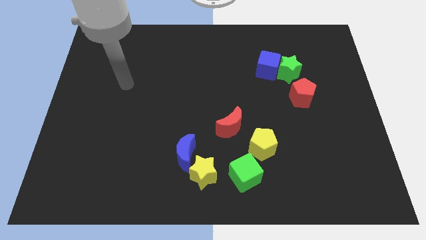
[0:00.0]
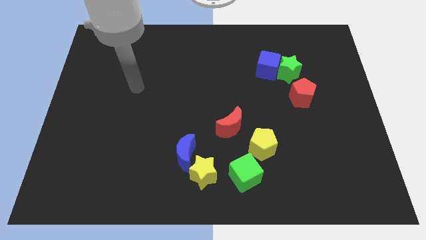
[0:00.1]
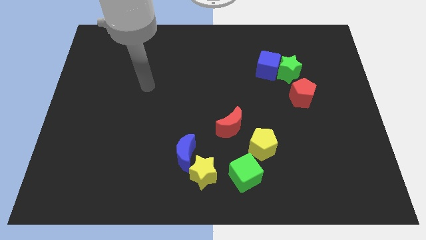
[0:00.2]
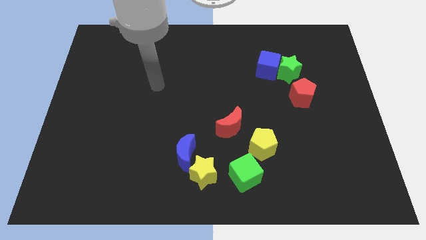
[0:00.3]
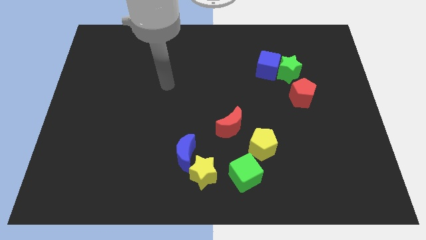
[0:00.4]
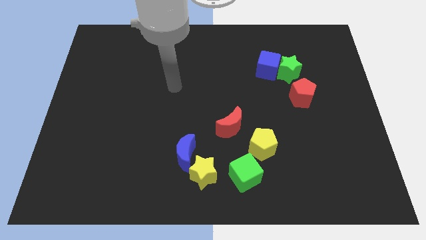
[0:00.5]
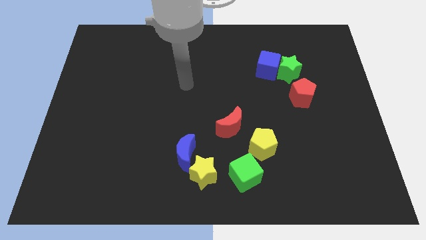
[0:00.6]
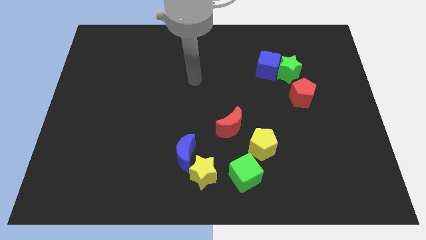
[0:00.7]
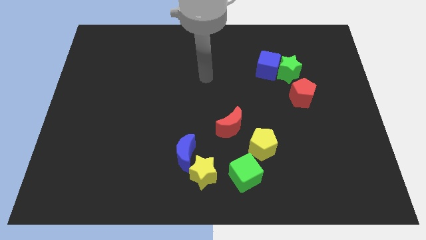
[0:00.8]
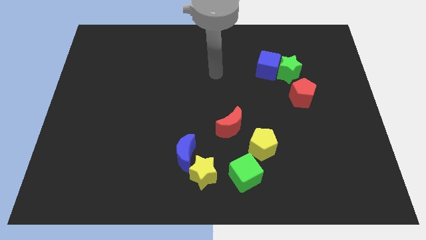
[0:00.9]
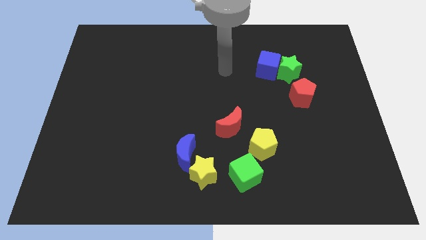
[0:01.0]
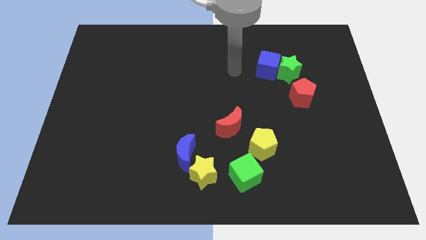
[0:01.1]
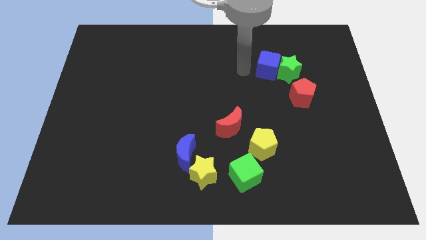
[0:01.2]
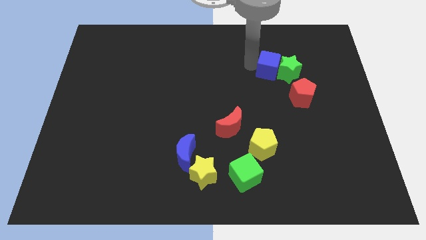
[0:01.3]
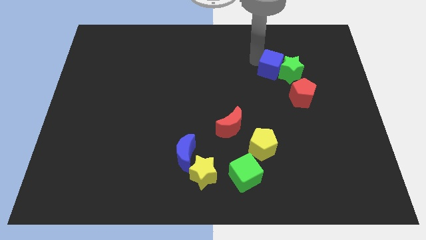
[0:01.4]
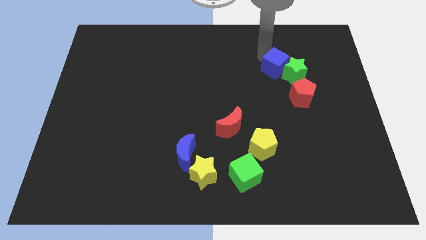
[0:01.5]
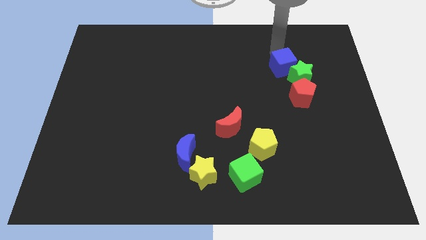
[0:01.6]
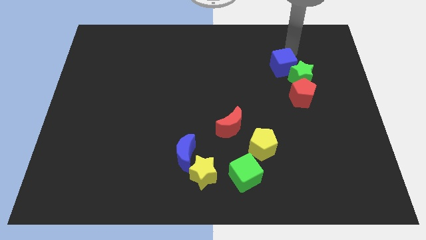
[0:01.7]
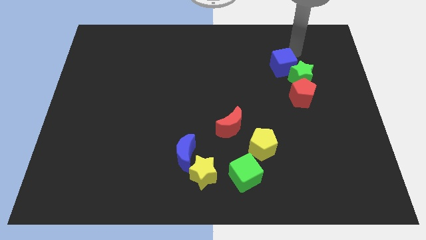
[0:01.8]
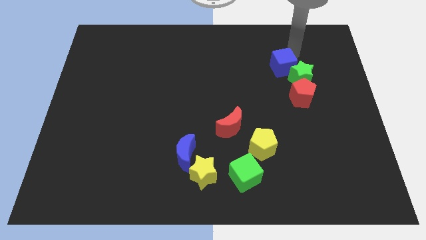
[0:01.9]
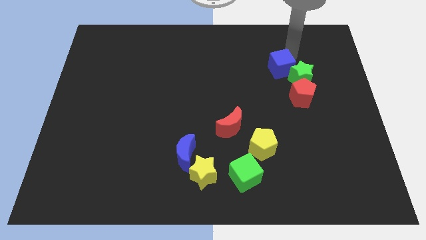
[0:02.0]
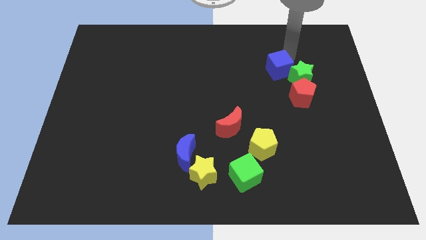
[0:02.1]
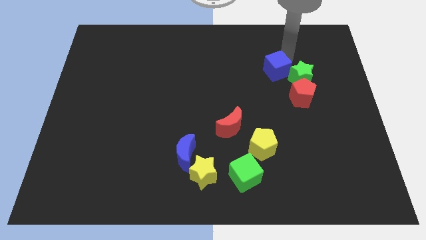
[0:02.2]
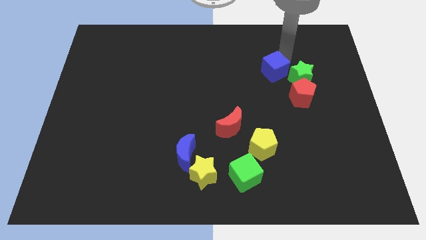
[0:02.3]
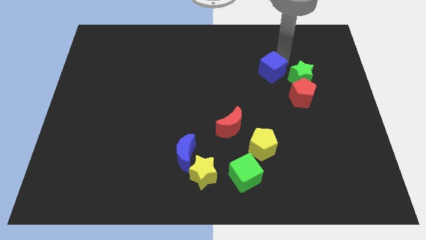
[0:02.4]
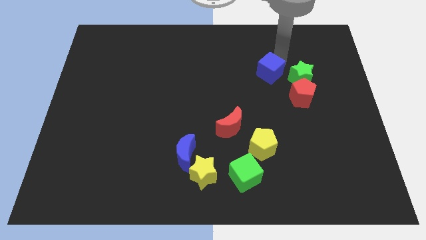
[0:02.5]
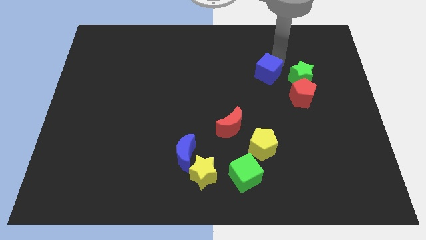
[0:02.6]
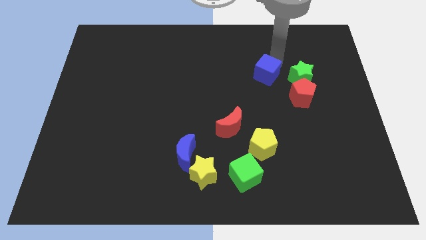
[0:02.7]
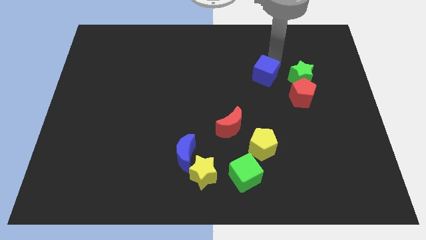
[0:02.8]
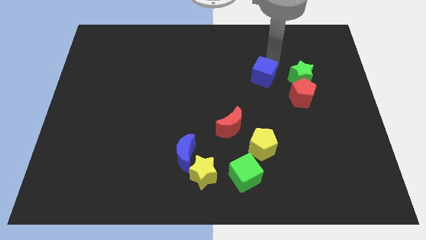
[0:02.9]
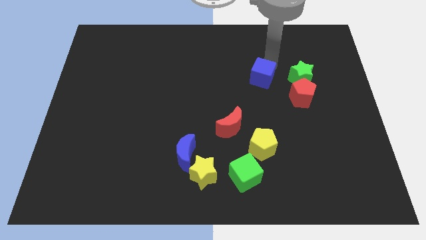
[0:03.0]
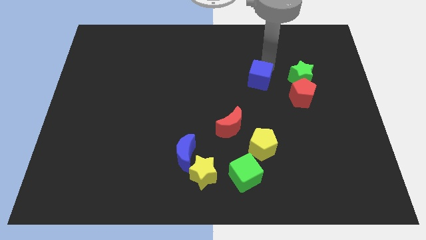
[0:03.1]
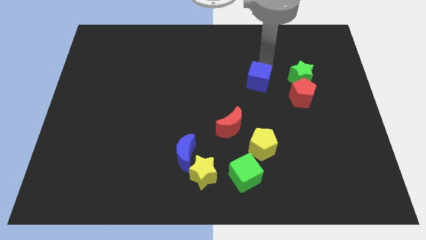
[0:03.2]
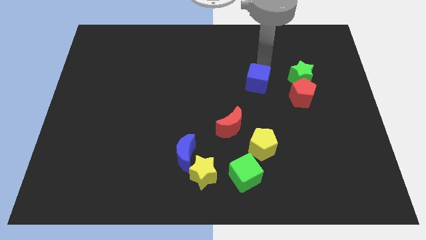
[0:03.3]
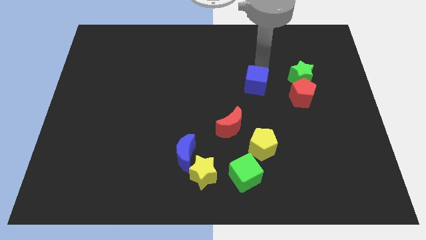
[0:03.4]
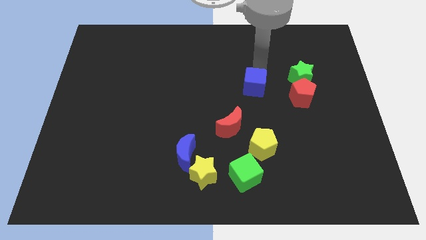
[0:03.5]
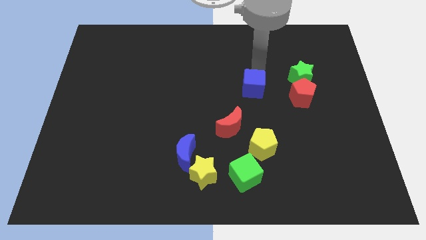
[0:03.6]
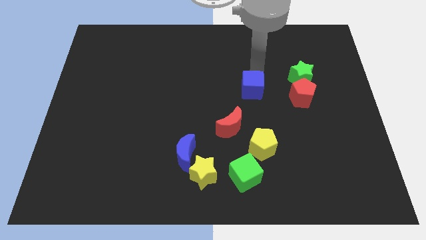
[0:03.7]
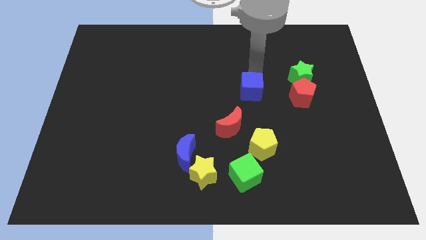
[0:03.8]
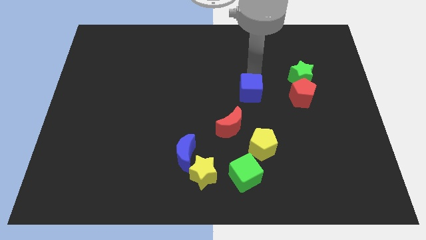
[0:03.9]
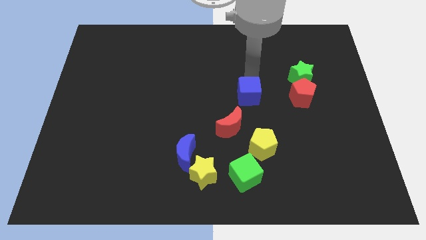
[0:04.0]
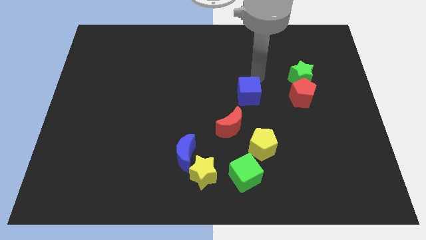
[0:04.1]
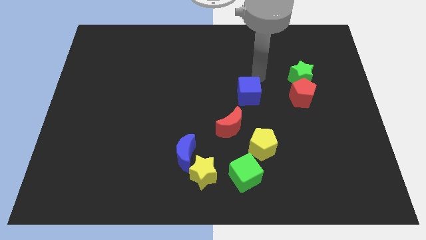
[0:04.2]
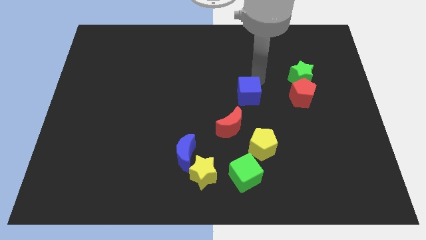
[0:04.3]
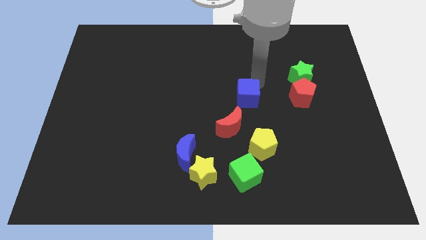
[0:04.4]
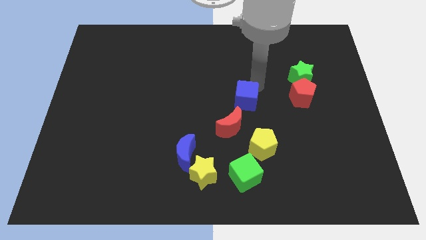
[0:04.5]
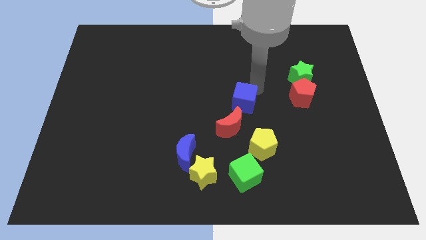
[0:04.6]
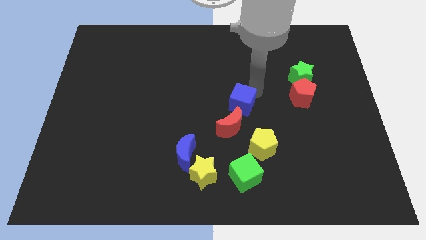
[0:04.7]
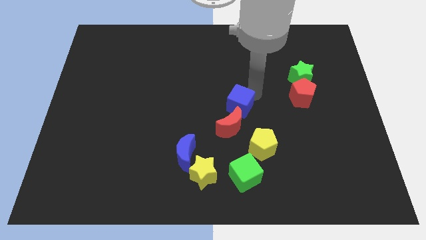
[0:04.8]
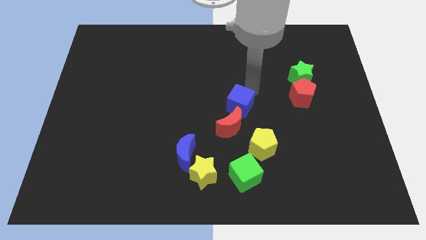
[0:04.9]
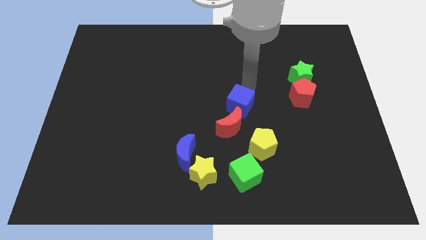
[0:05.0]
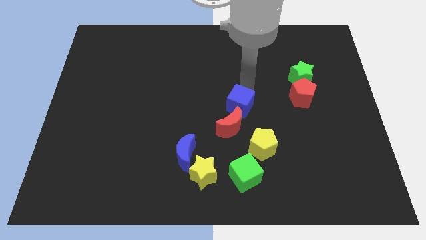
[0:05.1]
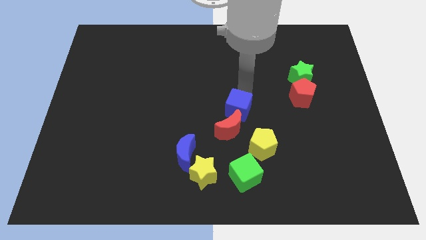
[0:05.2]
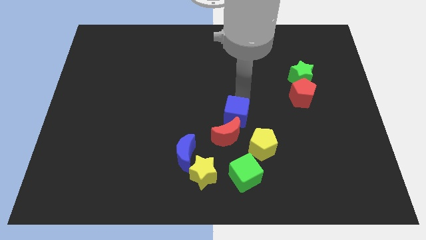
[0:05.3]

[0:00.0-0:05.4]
put the blue cube next to the red moon

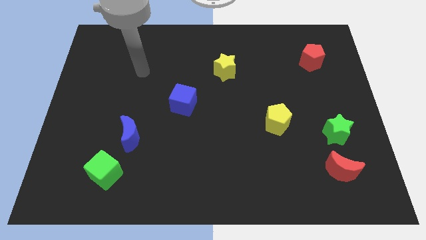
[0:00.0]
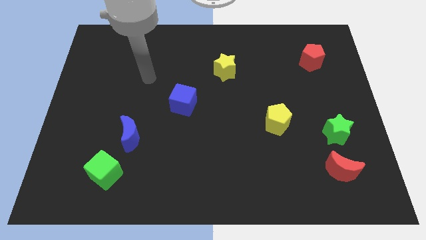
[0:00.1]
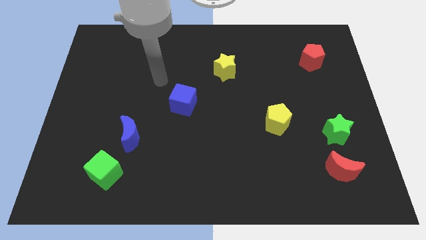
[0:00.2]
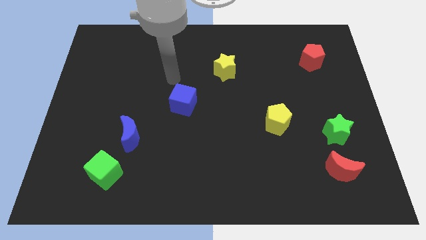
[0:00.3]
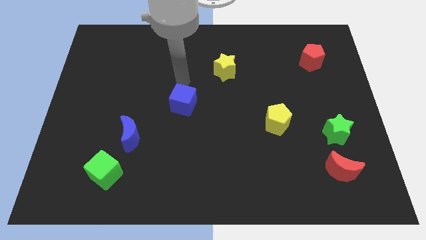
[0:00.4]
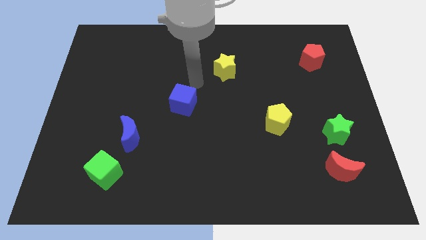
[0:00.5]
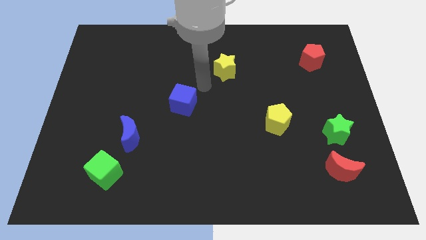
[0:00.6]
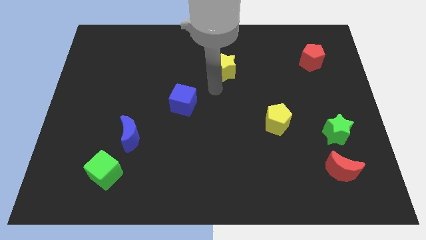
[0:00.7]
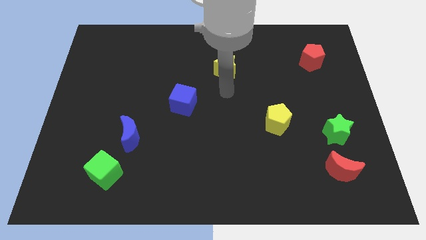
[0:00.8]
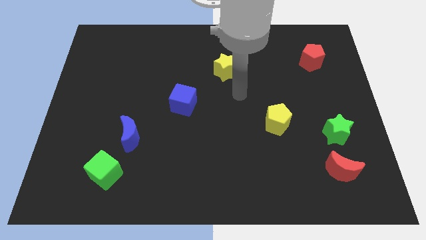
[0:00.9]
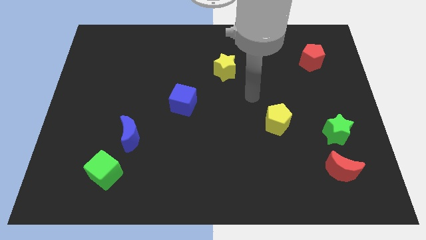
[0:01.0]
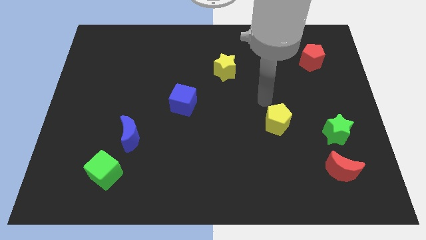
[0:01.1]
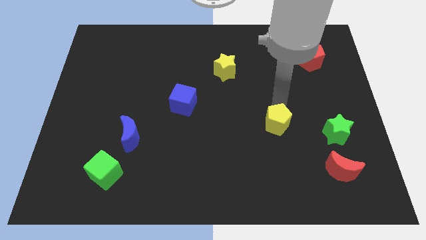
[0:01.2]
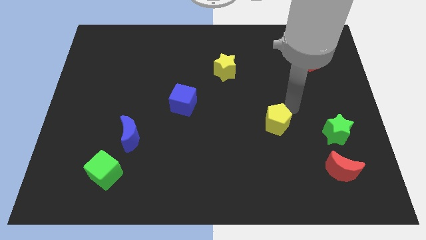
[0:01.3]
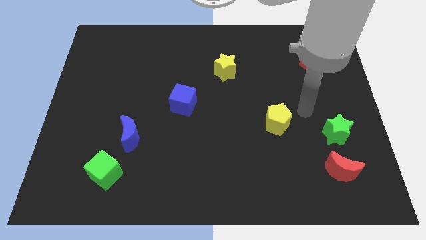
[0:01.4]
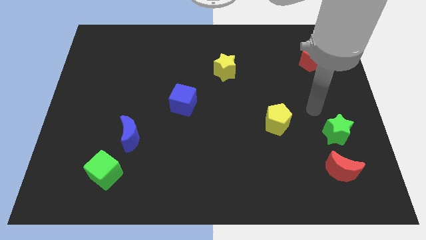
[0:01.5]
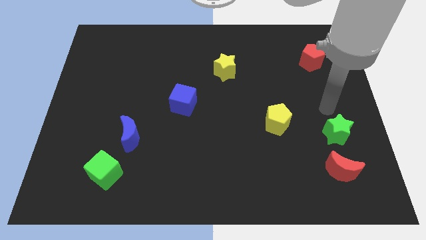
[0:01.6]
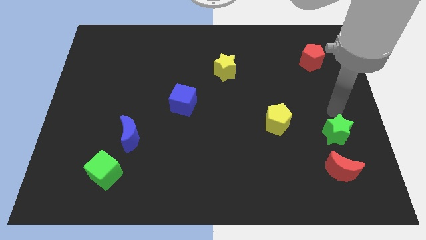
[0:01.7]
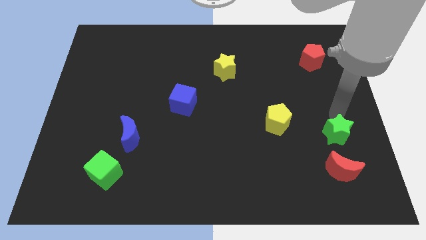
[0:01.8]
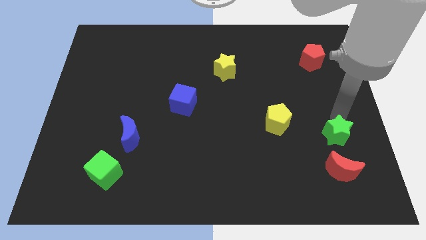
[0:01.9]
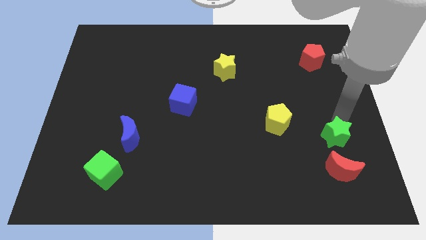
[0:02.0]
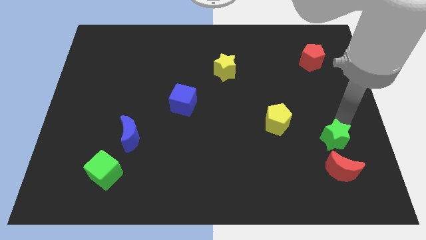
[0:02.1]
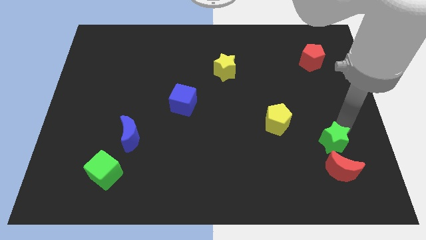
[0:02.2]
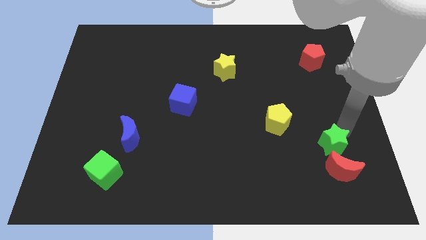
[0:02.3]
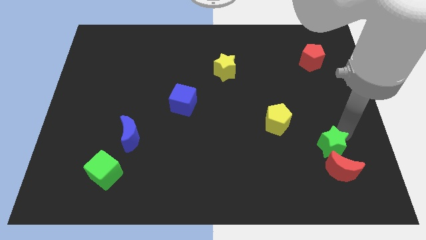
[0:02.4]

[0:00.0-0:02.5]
slide the green star to the red moon
